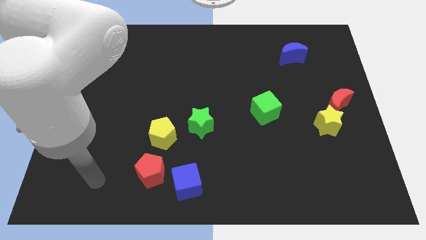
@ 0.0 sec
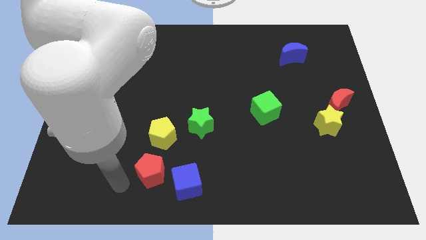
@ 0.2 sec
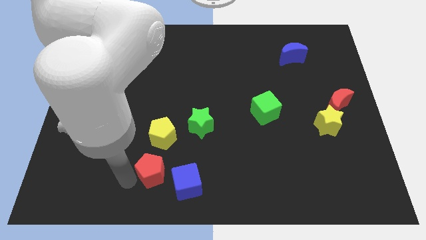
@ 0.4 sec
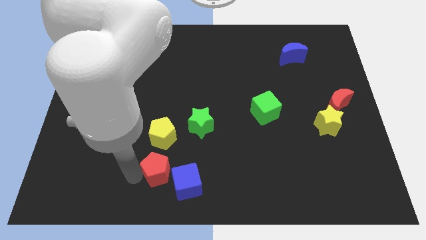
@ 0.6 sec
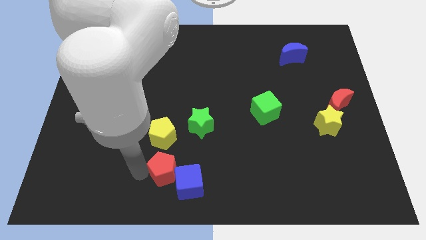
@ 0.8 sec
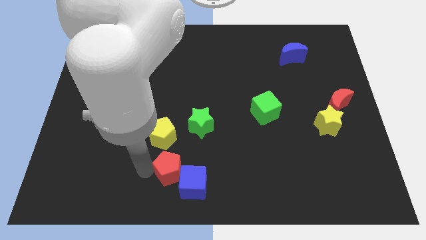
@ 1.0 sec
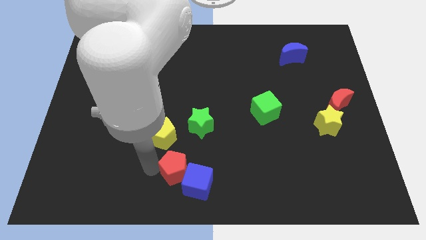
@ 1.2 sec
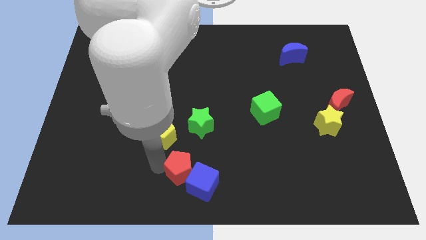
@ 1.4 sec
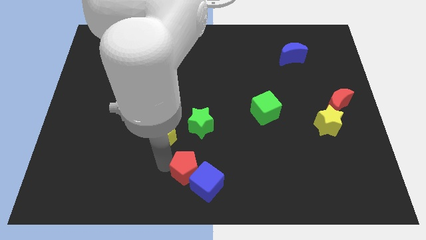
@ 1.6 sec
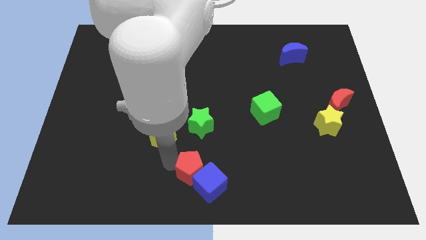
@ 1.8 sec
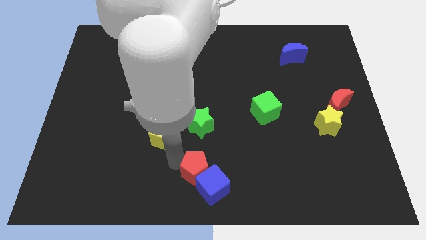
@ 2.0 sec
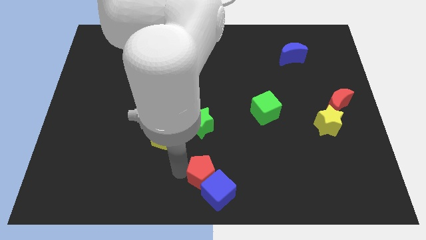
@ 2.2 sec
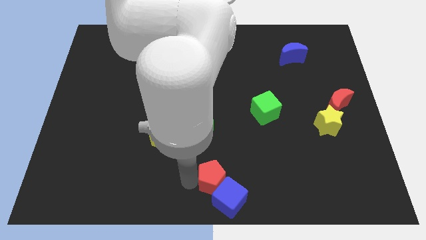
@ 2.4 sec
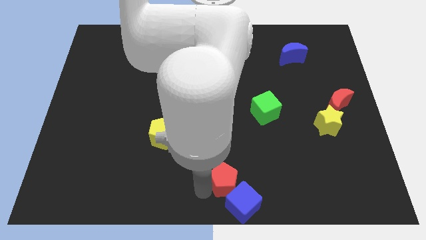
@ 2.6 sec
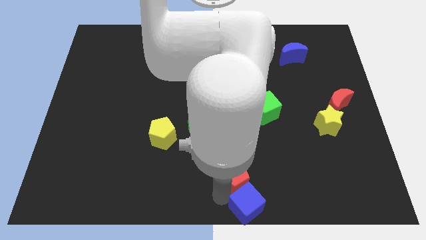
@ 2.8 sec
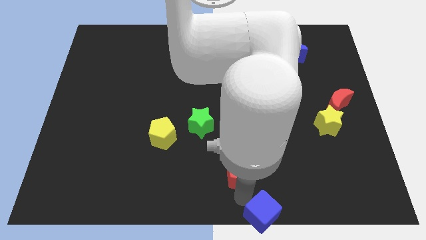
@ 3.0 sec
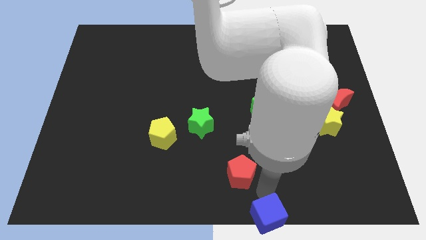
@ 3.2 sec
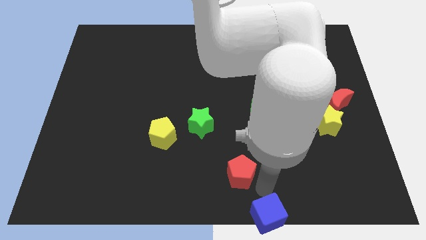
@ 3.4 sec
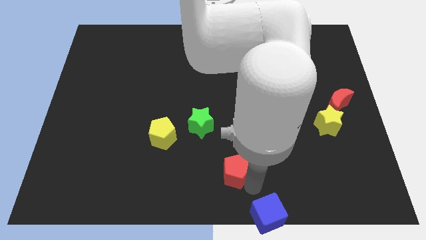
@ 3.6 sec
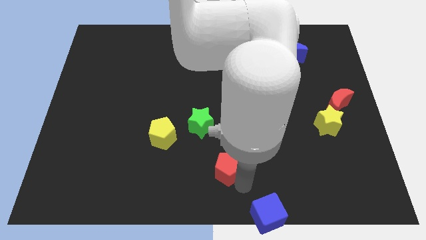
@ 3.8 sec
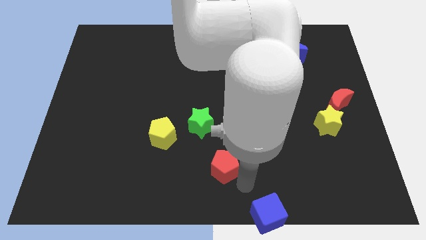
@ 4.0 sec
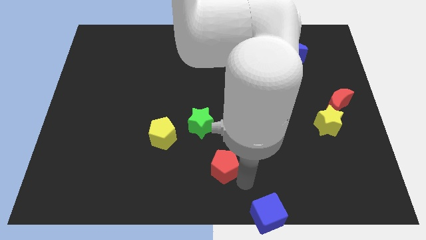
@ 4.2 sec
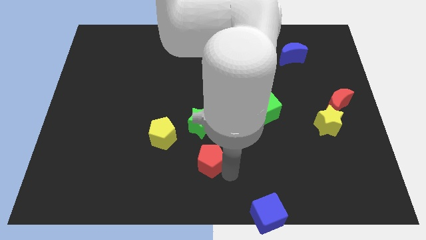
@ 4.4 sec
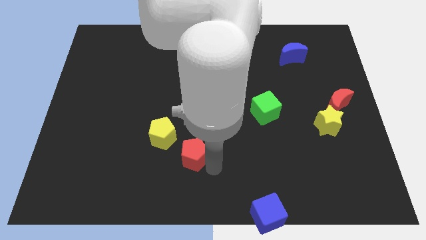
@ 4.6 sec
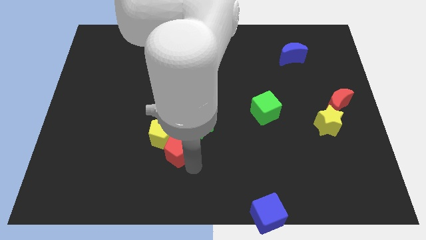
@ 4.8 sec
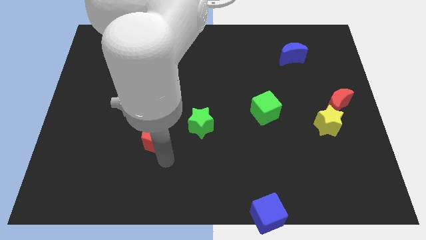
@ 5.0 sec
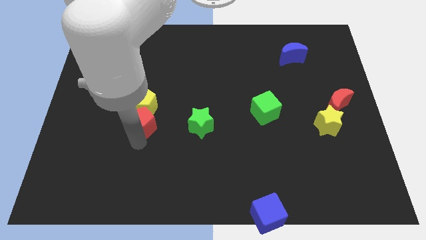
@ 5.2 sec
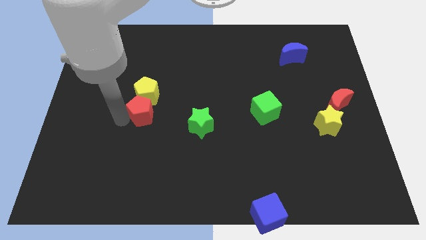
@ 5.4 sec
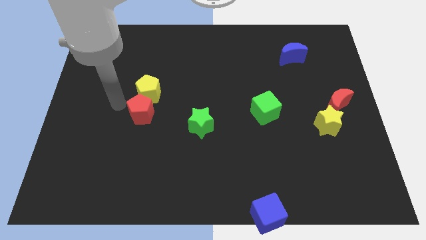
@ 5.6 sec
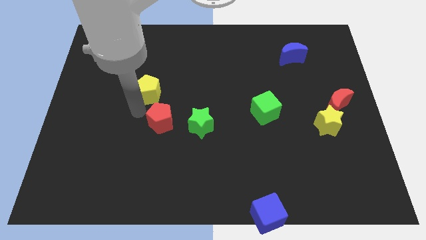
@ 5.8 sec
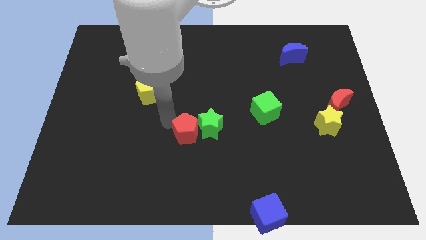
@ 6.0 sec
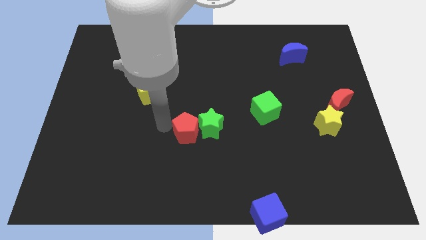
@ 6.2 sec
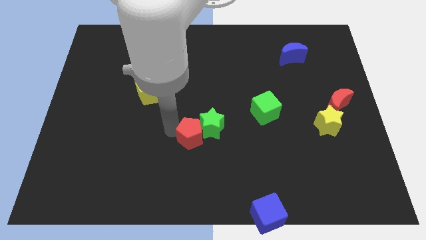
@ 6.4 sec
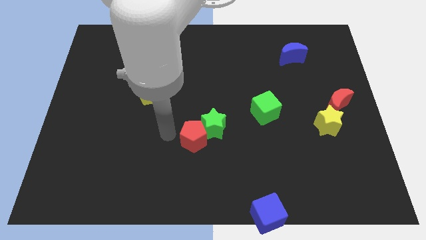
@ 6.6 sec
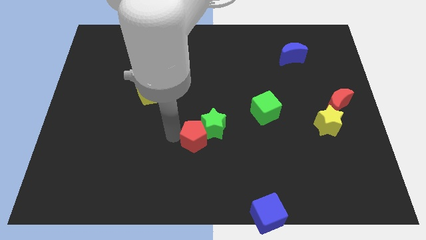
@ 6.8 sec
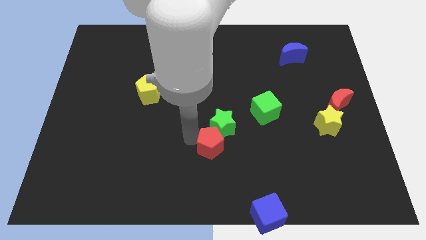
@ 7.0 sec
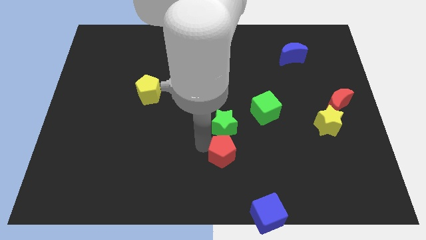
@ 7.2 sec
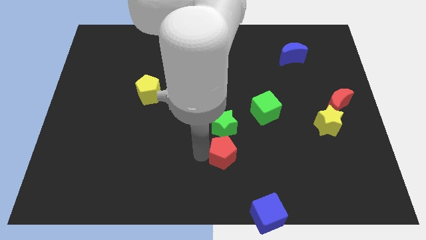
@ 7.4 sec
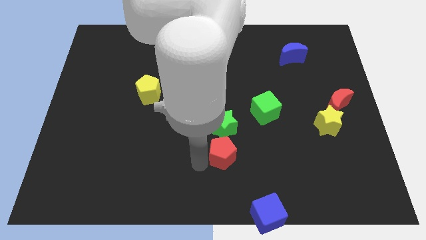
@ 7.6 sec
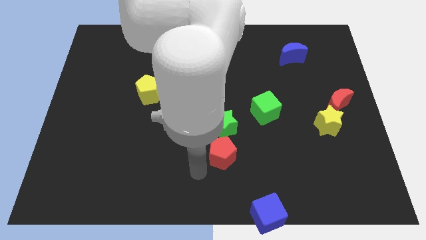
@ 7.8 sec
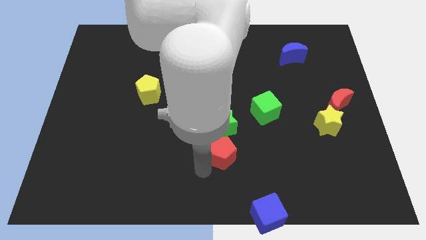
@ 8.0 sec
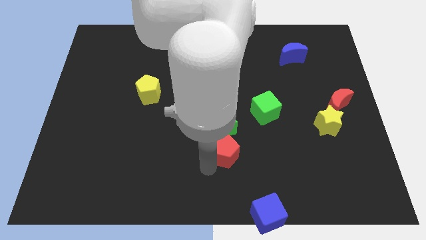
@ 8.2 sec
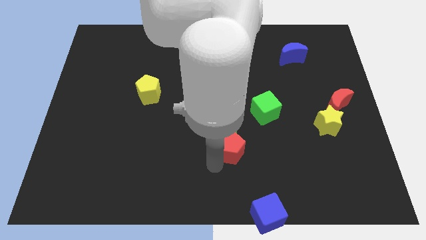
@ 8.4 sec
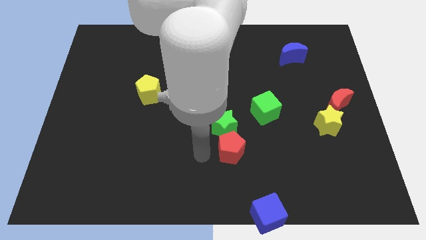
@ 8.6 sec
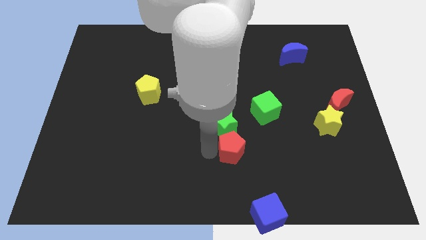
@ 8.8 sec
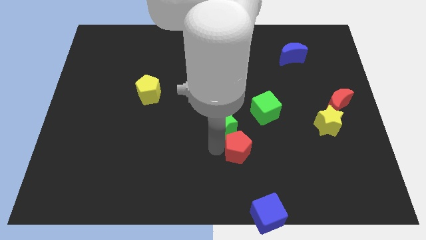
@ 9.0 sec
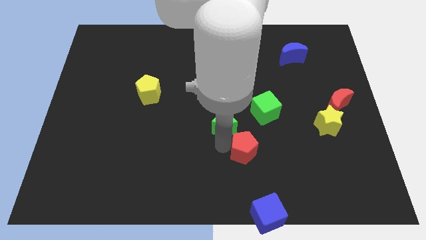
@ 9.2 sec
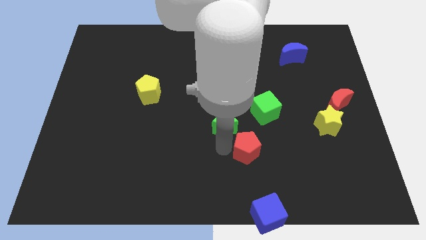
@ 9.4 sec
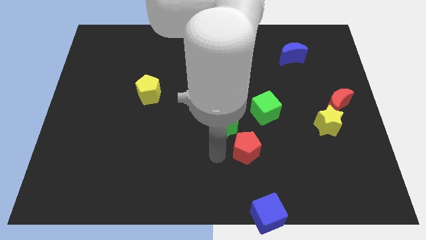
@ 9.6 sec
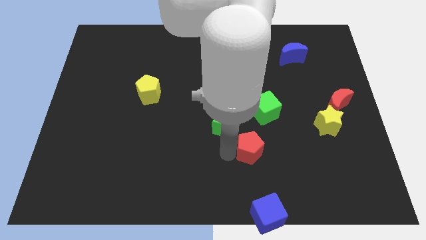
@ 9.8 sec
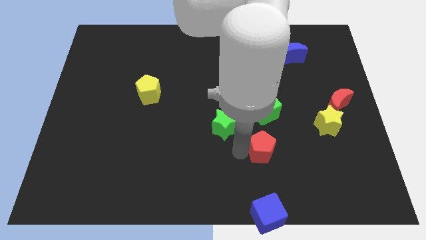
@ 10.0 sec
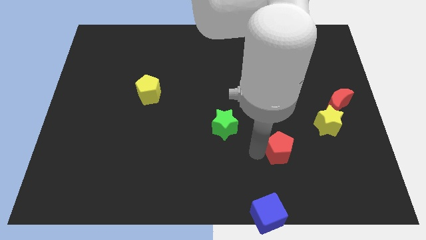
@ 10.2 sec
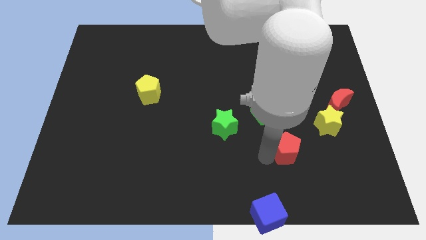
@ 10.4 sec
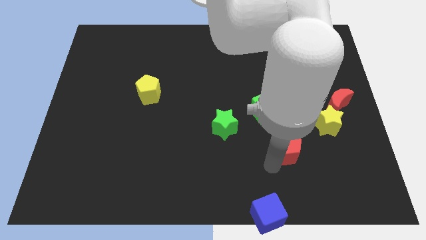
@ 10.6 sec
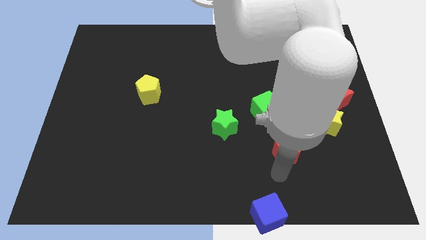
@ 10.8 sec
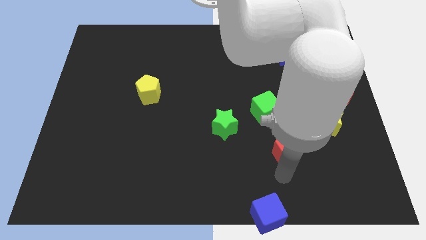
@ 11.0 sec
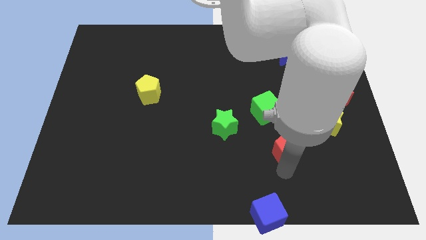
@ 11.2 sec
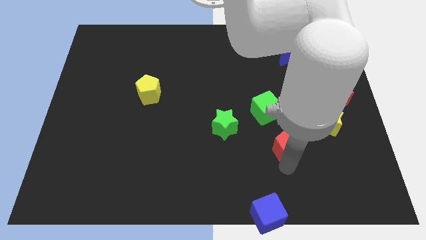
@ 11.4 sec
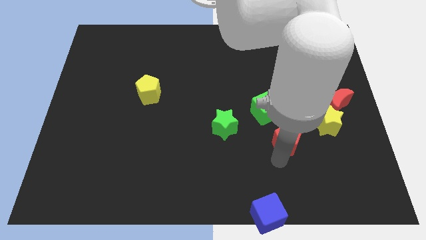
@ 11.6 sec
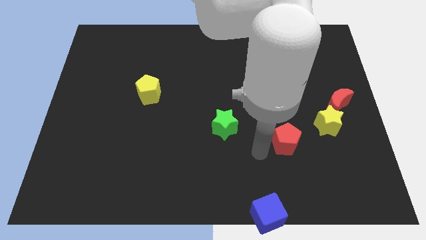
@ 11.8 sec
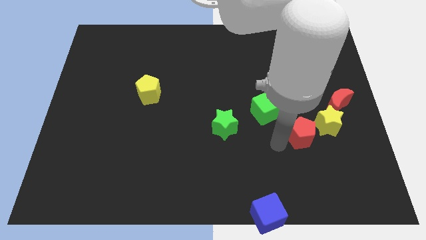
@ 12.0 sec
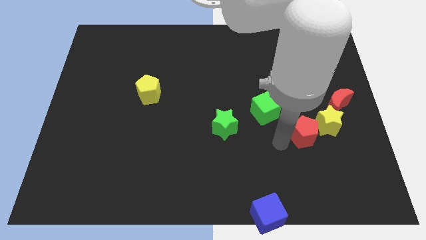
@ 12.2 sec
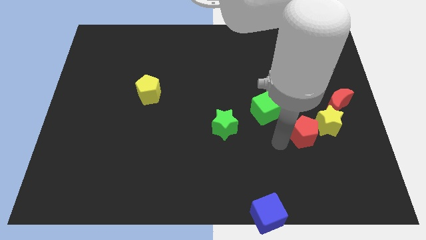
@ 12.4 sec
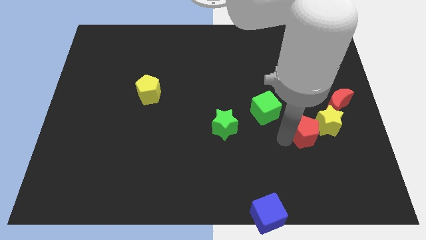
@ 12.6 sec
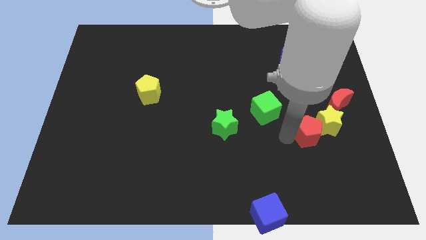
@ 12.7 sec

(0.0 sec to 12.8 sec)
slide the red pentagon next to the yellow star

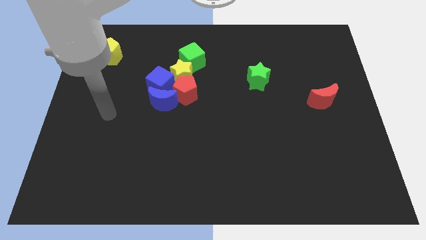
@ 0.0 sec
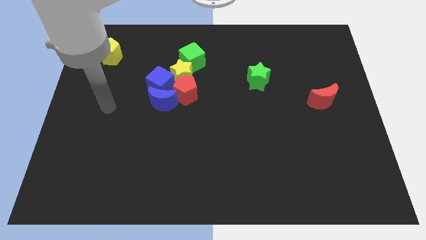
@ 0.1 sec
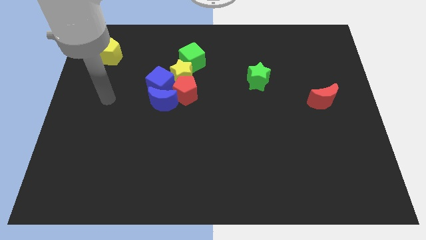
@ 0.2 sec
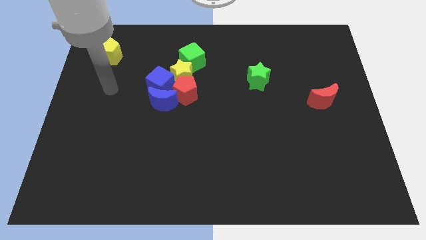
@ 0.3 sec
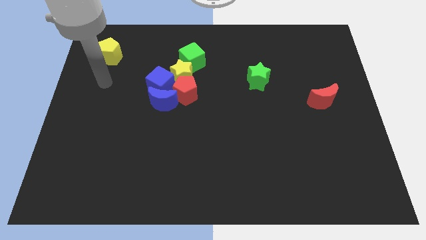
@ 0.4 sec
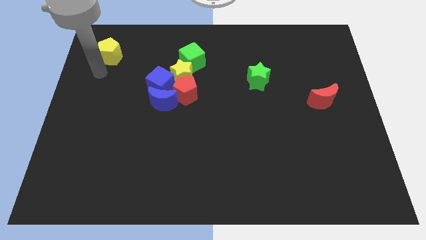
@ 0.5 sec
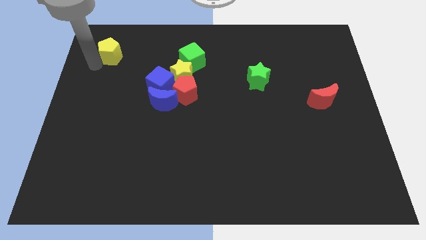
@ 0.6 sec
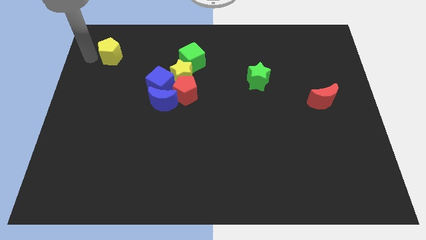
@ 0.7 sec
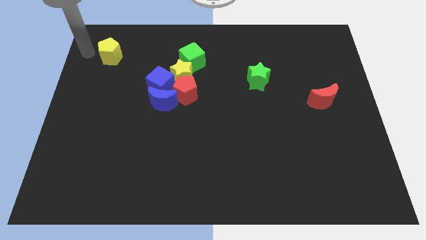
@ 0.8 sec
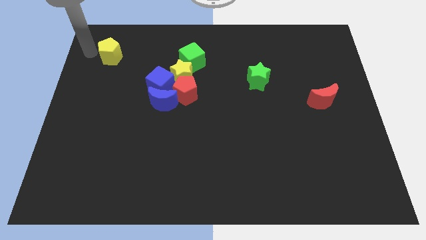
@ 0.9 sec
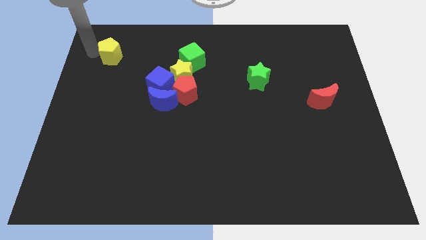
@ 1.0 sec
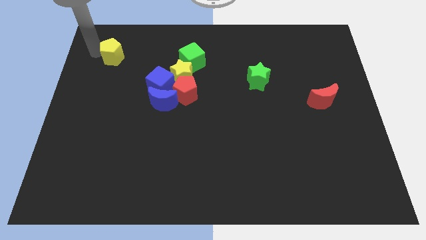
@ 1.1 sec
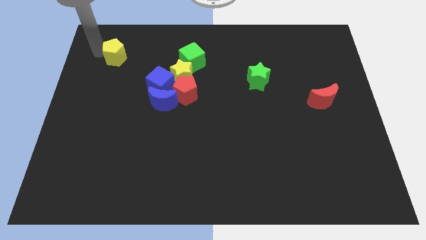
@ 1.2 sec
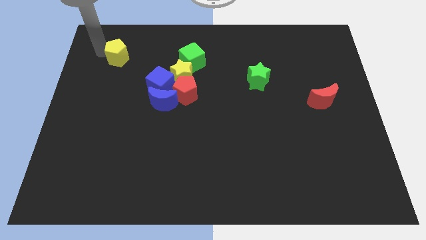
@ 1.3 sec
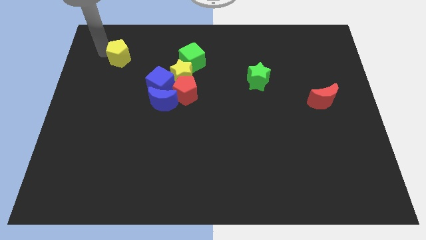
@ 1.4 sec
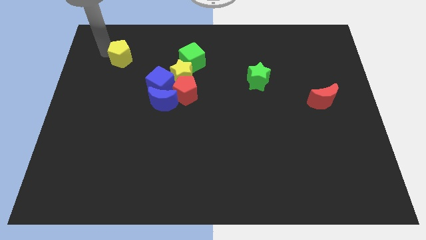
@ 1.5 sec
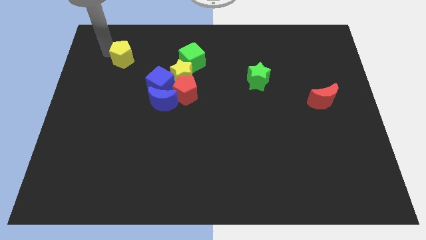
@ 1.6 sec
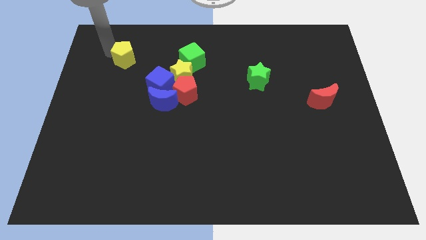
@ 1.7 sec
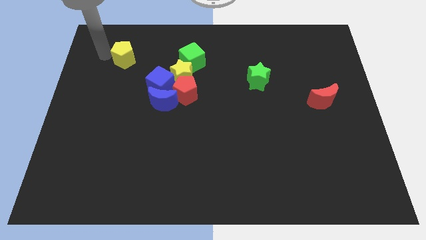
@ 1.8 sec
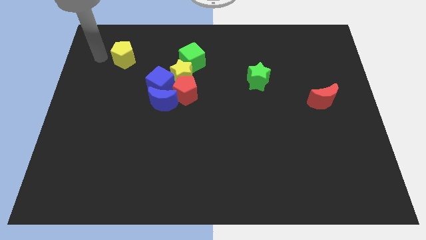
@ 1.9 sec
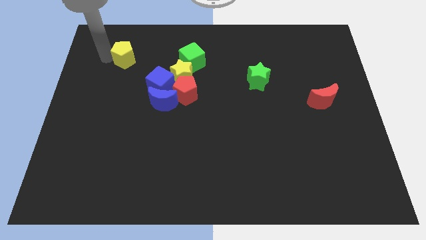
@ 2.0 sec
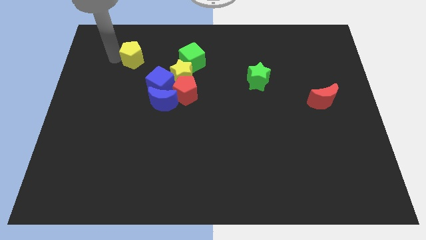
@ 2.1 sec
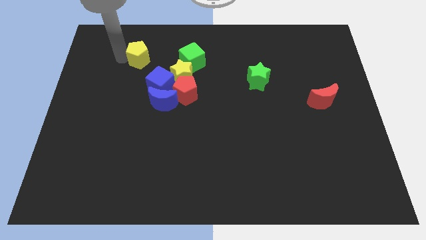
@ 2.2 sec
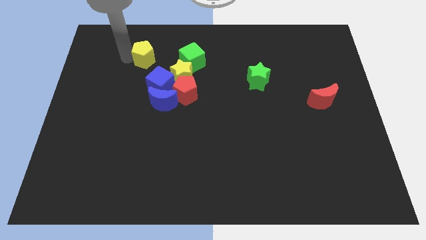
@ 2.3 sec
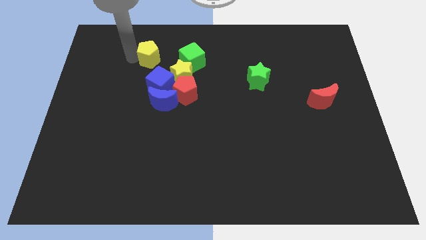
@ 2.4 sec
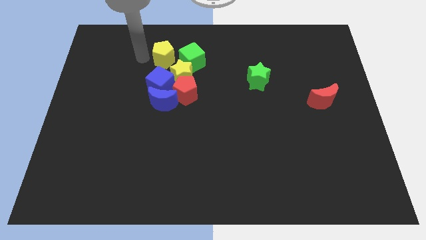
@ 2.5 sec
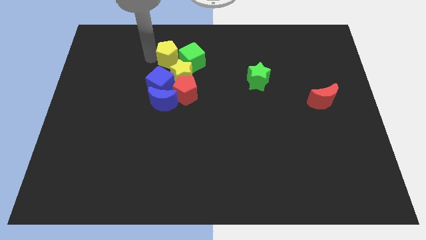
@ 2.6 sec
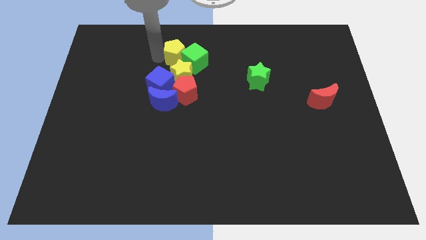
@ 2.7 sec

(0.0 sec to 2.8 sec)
put the yellow pentagon close to the green cube
